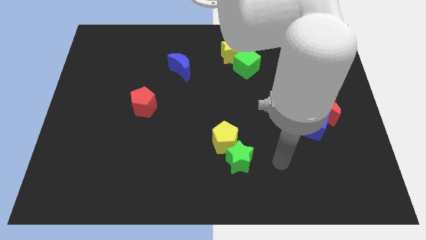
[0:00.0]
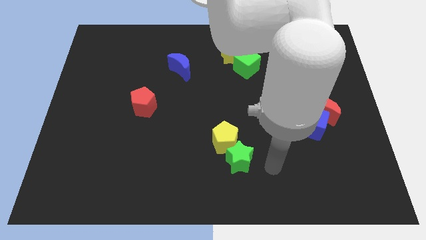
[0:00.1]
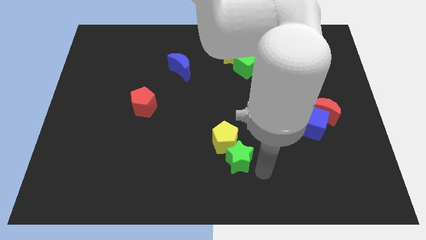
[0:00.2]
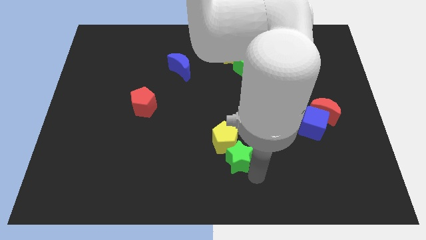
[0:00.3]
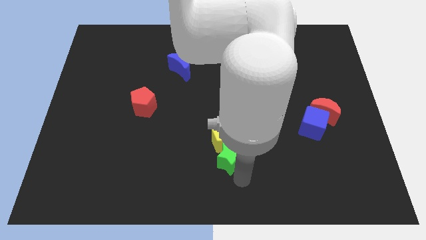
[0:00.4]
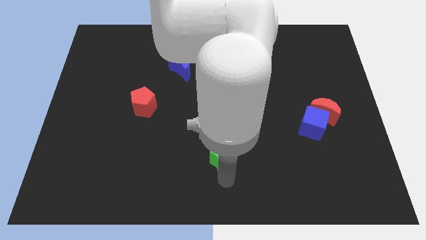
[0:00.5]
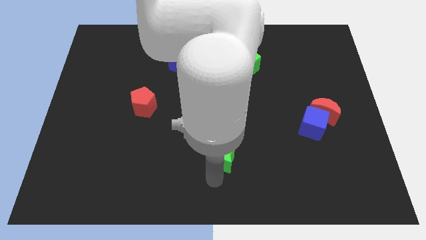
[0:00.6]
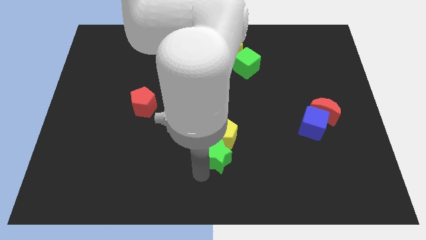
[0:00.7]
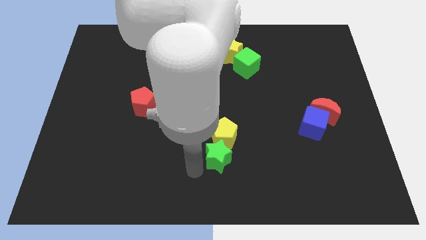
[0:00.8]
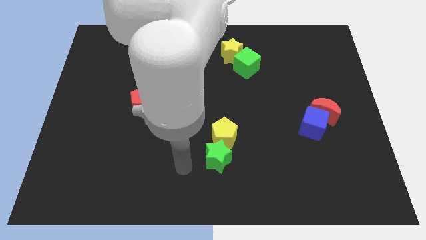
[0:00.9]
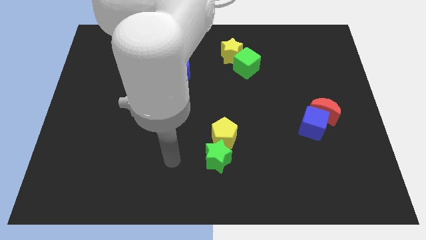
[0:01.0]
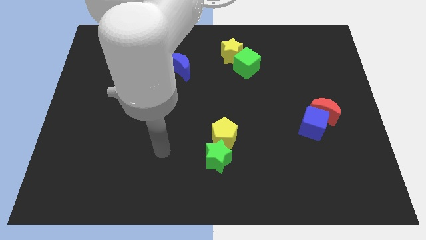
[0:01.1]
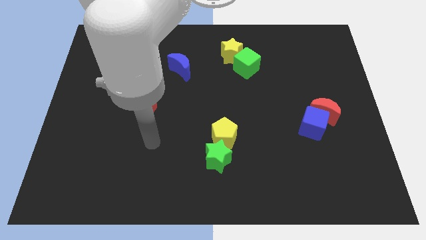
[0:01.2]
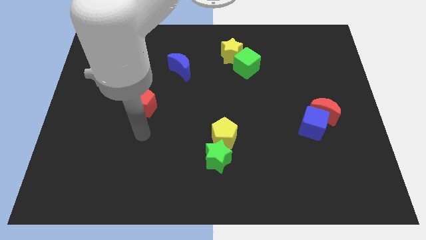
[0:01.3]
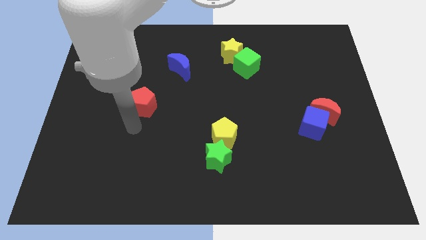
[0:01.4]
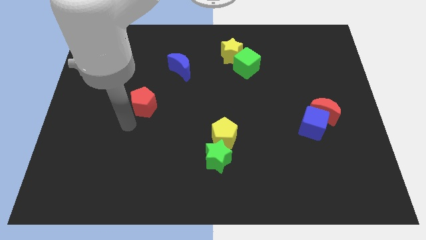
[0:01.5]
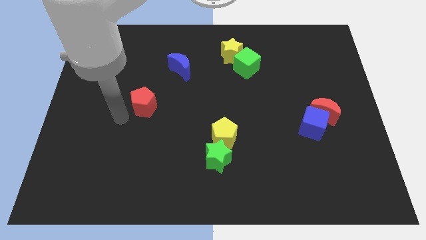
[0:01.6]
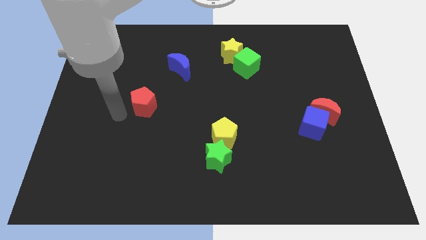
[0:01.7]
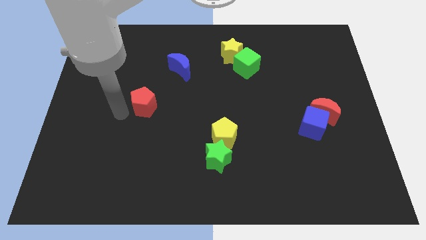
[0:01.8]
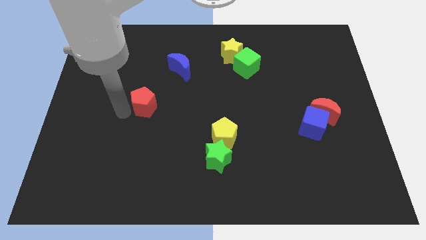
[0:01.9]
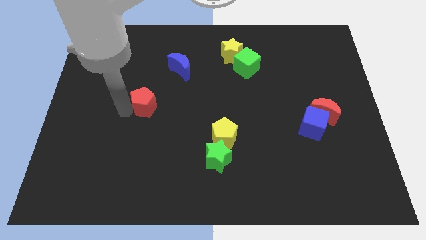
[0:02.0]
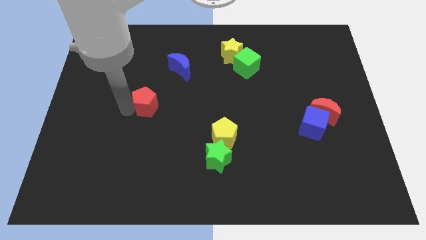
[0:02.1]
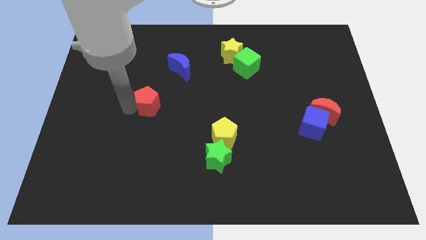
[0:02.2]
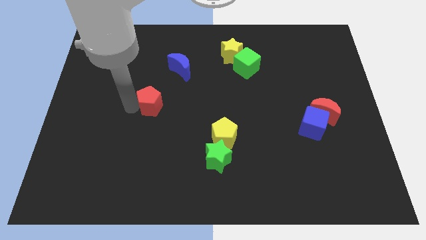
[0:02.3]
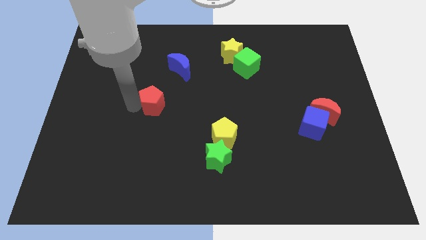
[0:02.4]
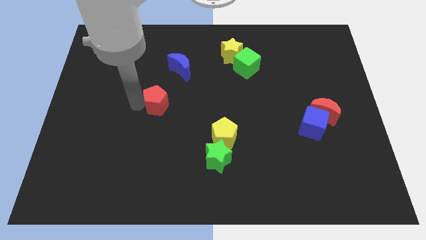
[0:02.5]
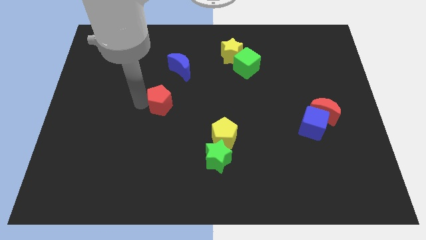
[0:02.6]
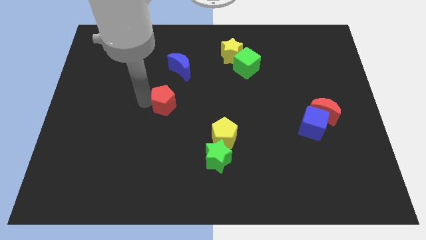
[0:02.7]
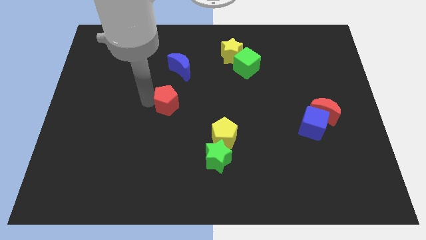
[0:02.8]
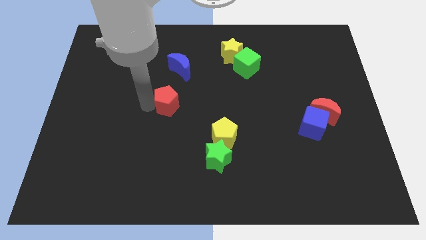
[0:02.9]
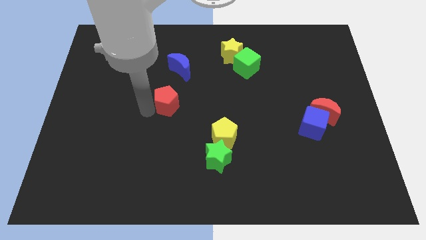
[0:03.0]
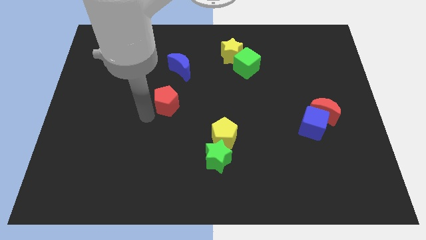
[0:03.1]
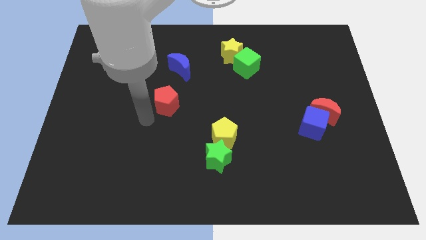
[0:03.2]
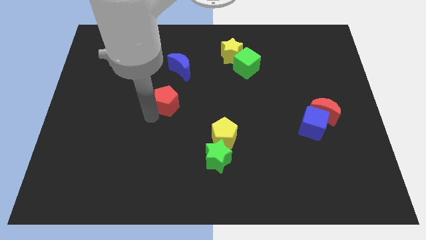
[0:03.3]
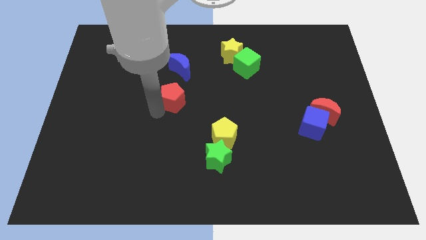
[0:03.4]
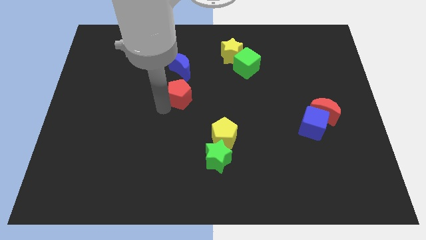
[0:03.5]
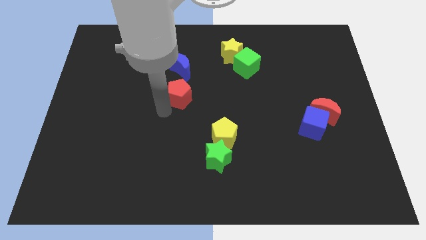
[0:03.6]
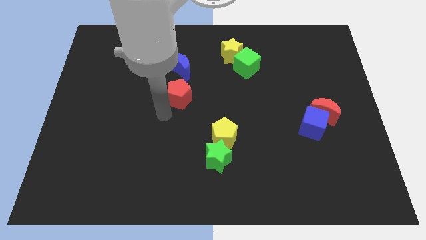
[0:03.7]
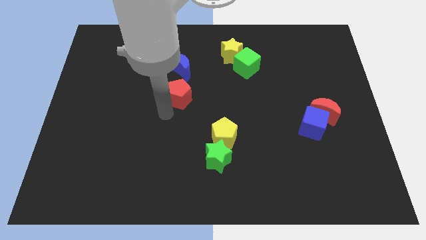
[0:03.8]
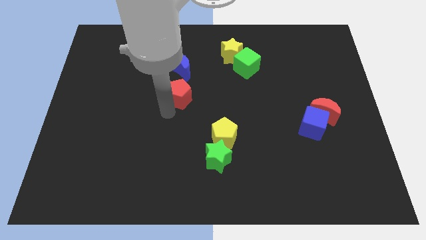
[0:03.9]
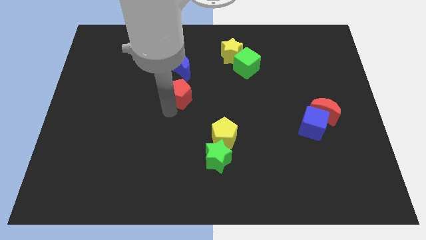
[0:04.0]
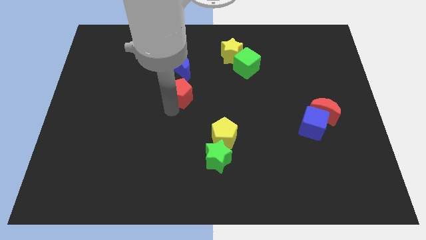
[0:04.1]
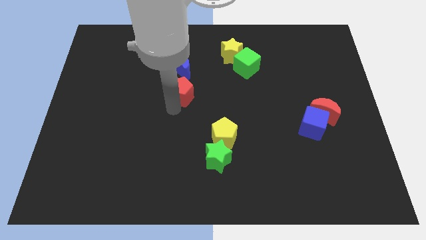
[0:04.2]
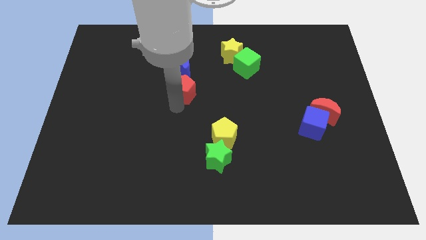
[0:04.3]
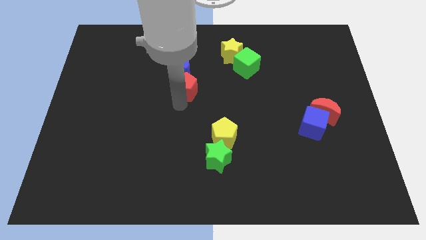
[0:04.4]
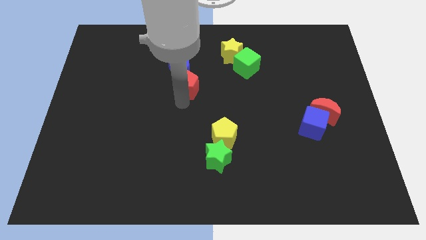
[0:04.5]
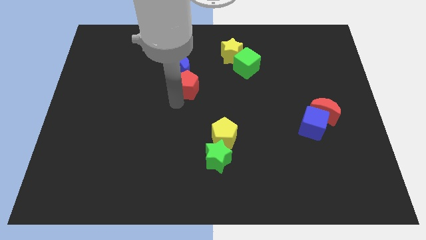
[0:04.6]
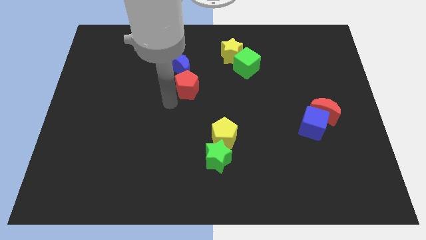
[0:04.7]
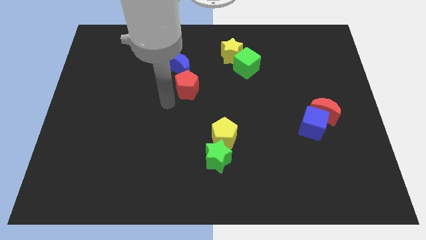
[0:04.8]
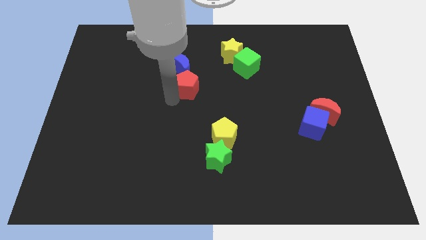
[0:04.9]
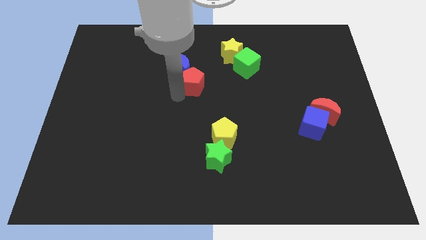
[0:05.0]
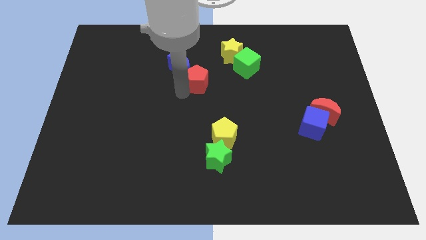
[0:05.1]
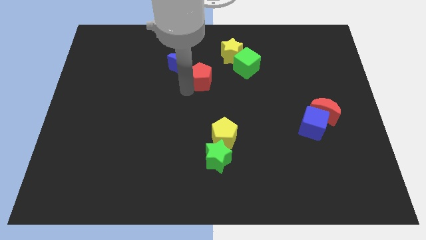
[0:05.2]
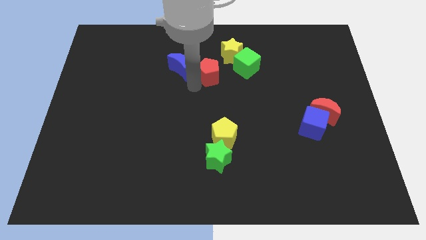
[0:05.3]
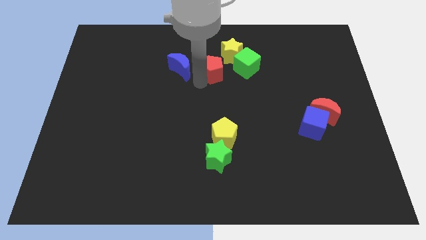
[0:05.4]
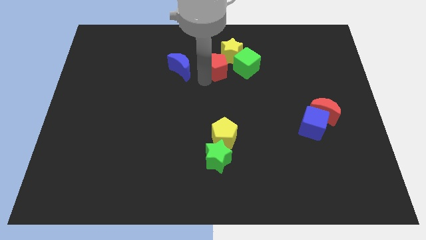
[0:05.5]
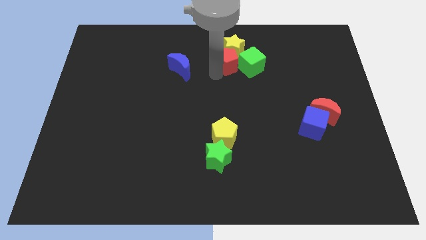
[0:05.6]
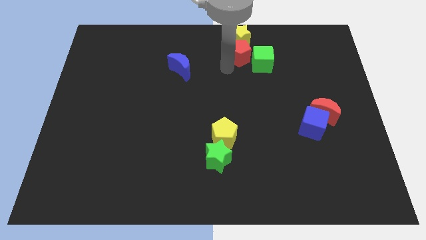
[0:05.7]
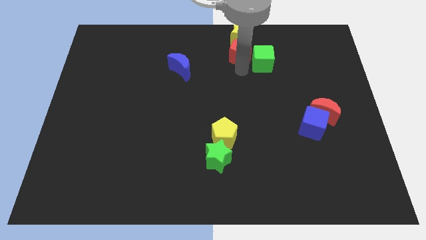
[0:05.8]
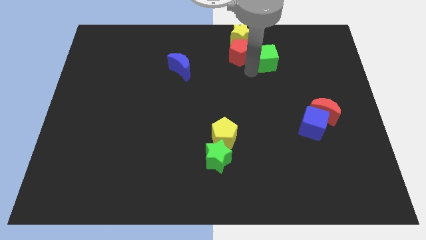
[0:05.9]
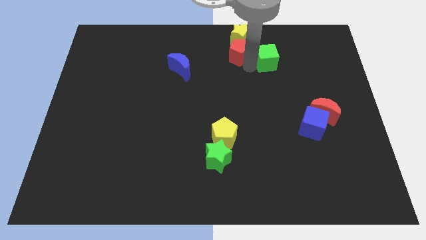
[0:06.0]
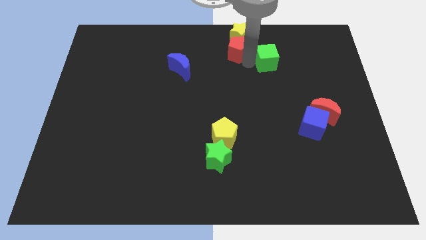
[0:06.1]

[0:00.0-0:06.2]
move the red pentagon to the towards your base
